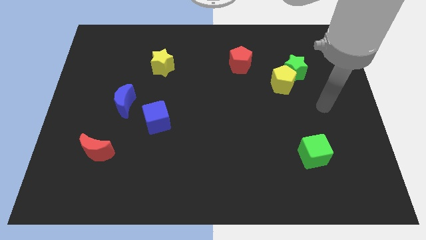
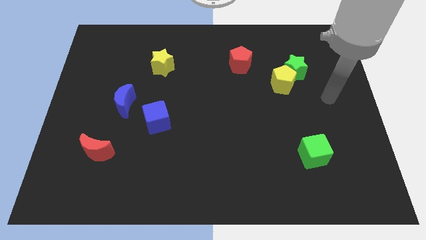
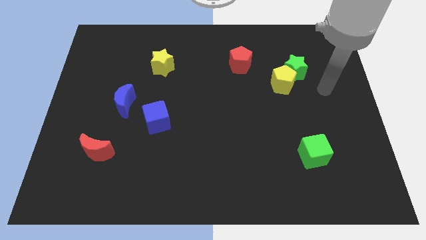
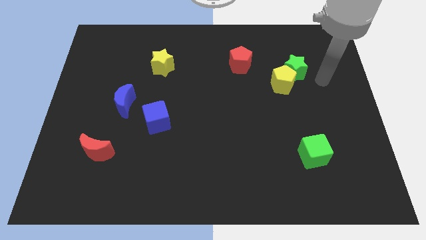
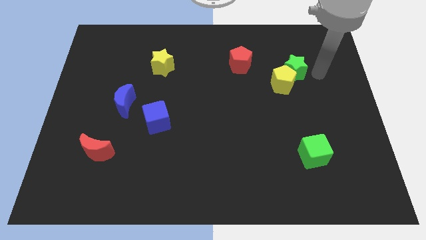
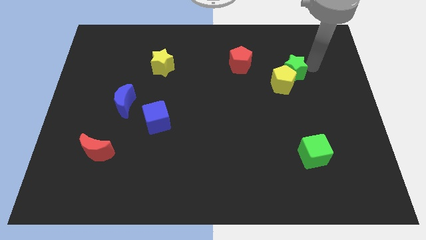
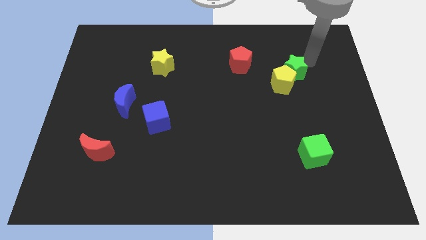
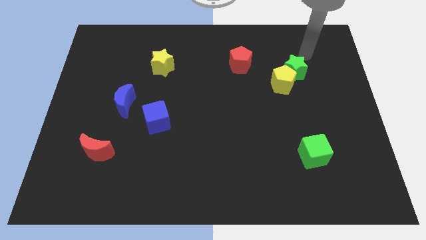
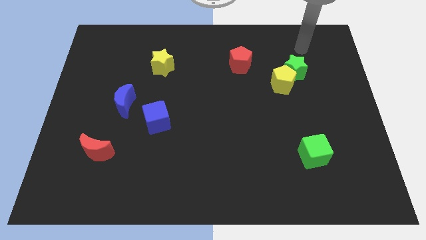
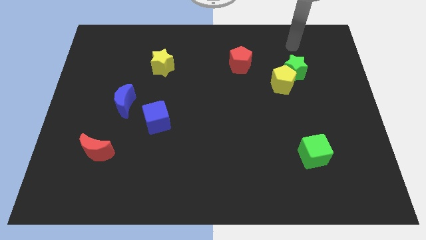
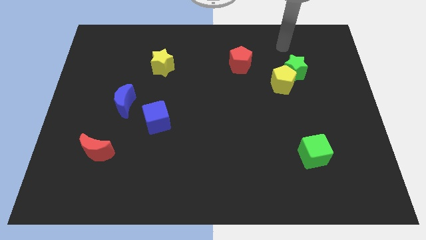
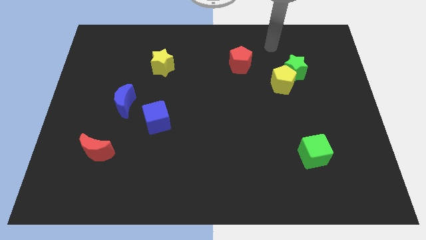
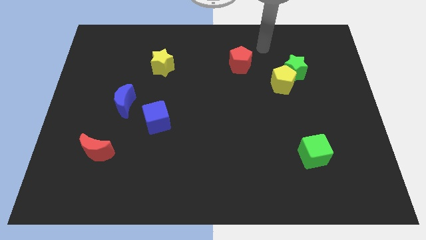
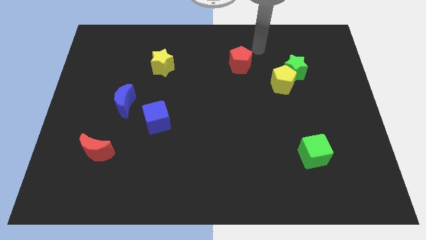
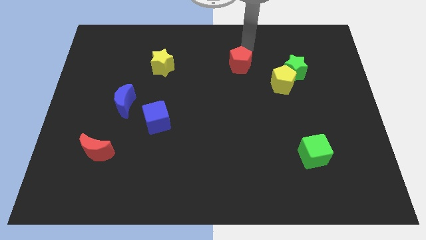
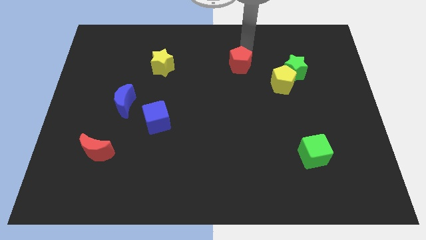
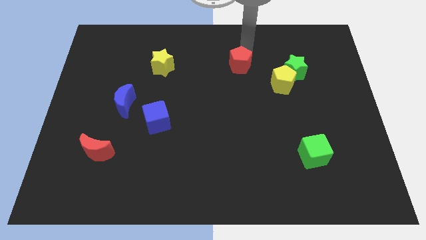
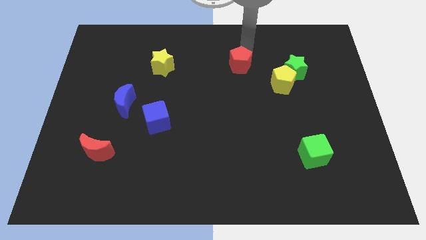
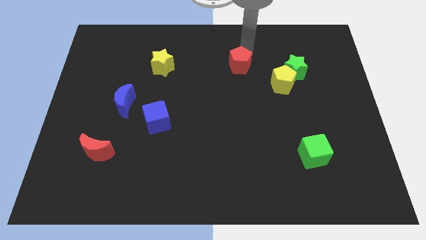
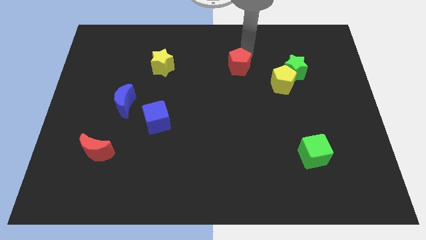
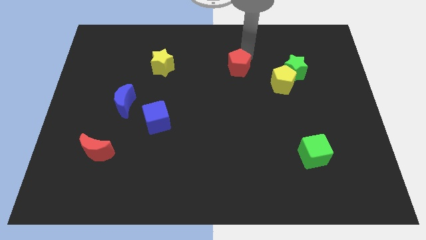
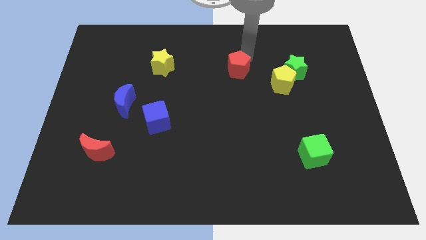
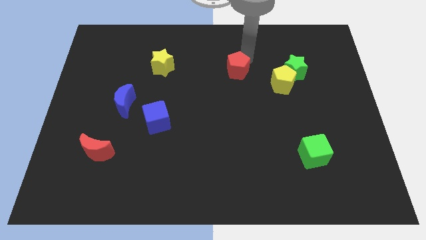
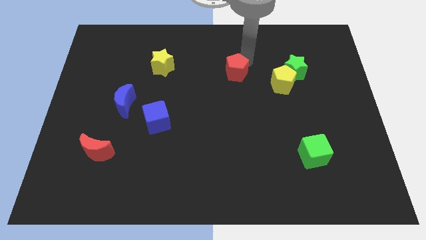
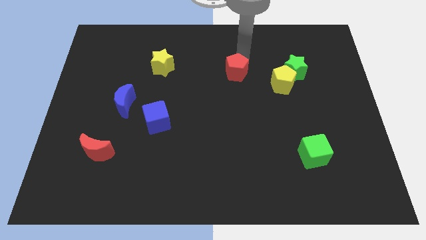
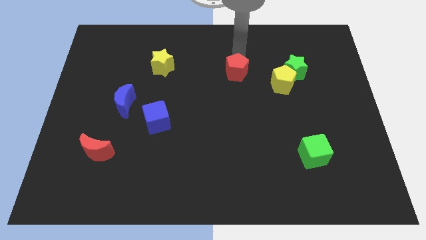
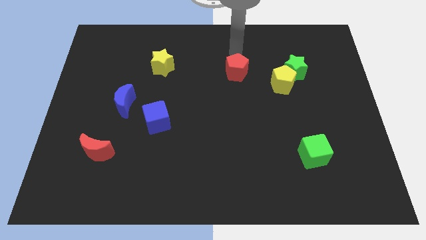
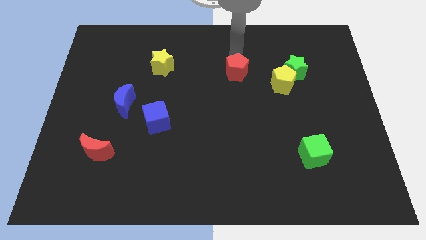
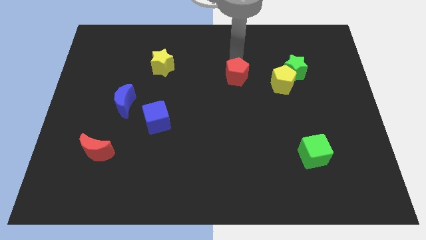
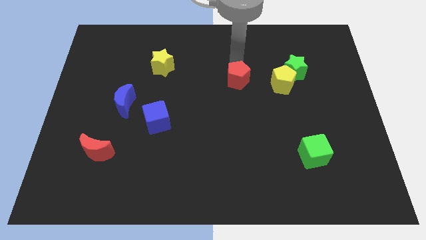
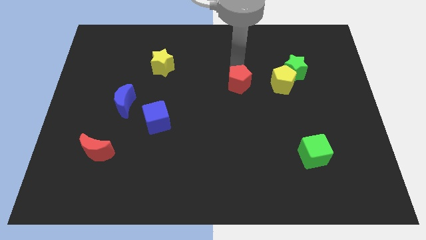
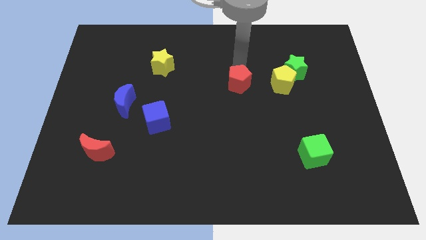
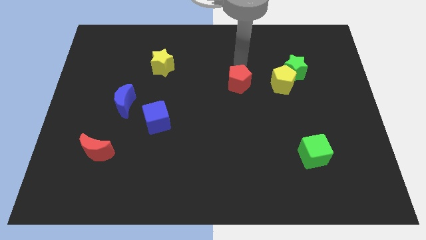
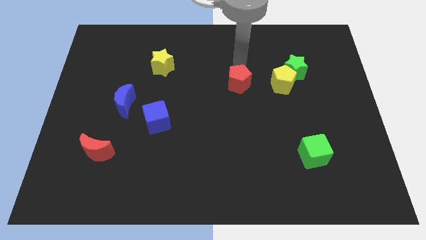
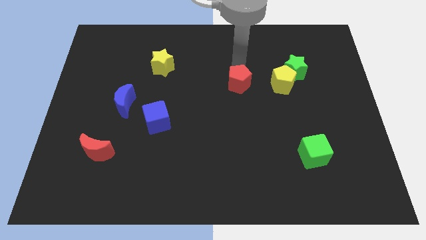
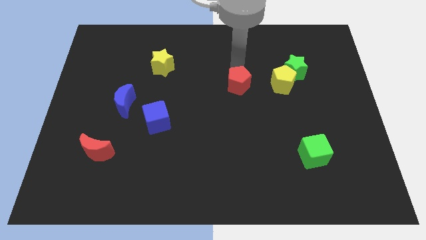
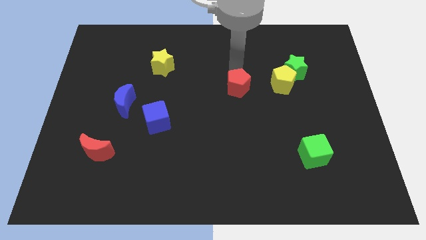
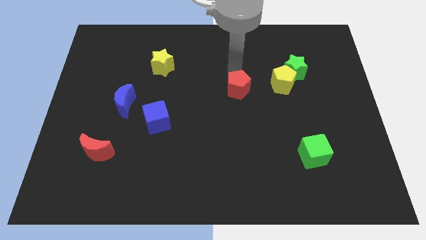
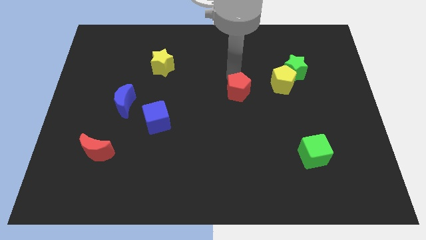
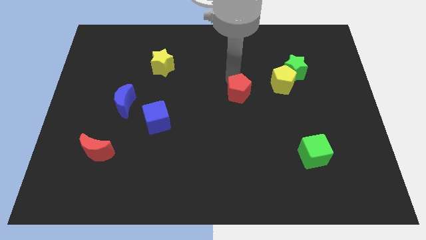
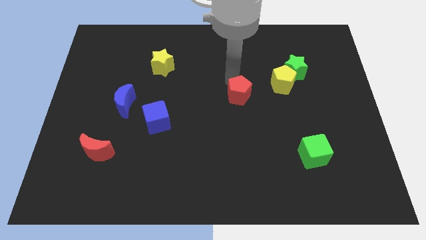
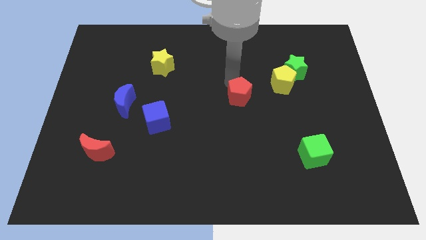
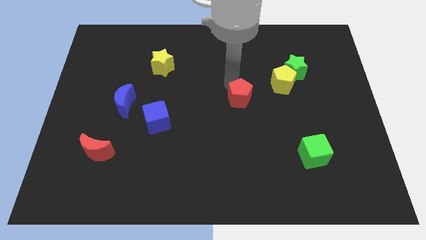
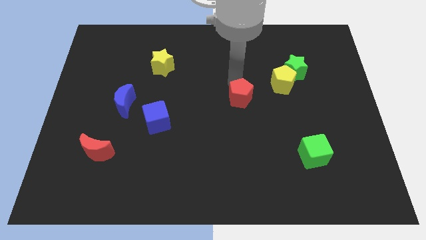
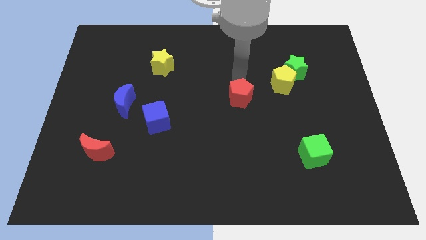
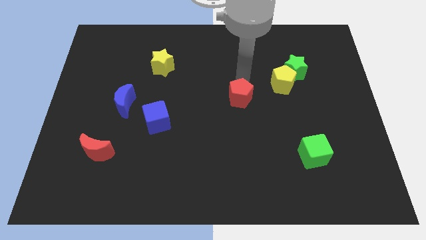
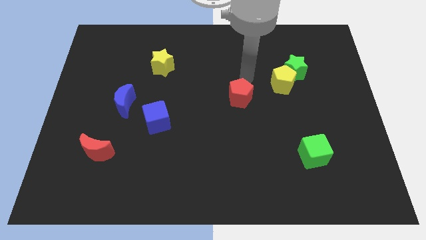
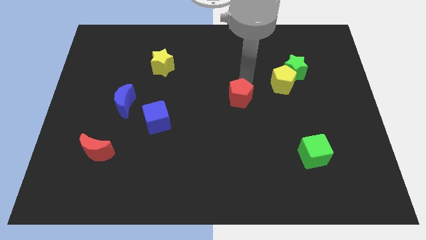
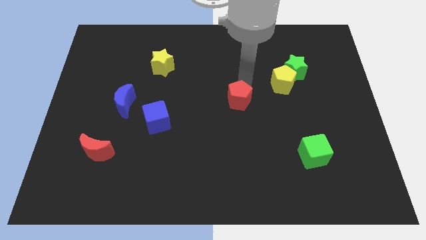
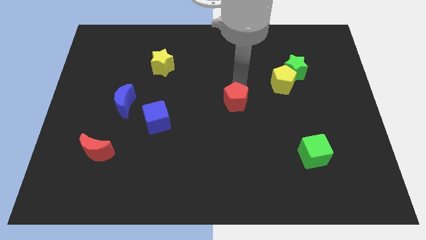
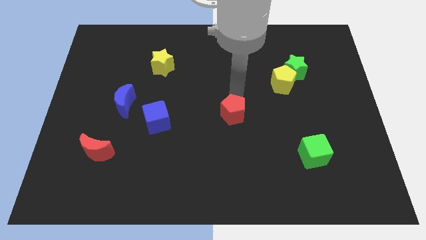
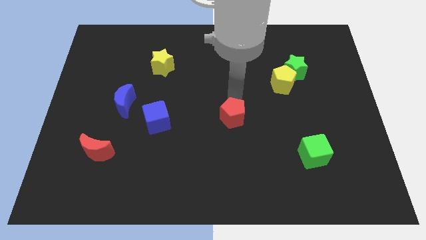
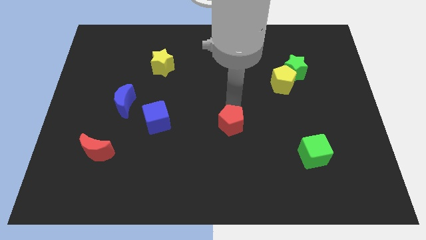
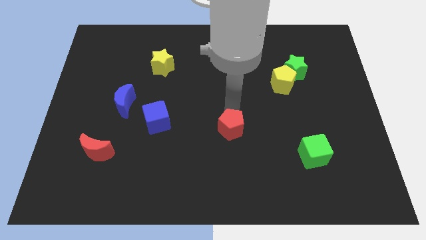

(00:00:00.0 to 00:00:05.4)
push the red pentagon down

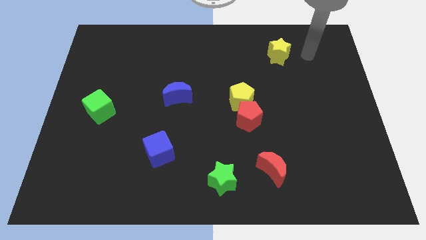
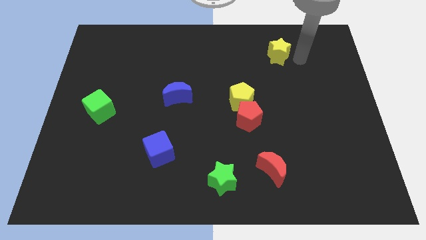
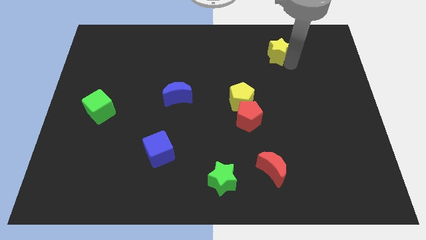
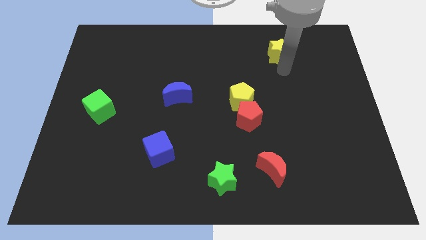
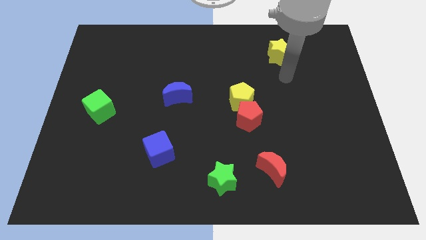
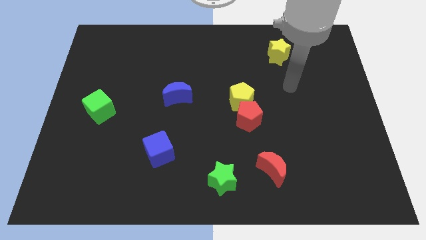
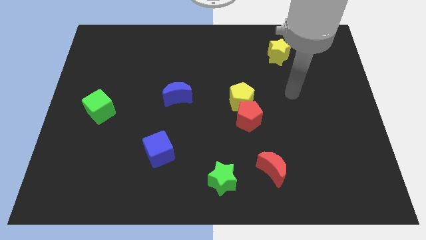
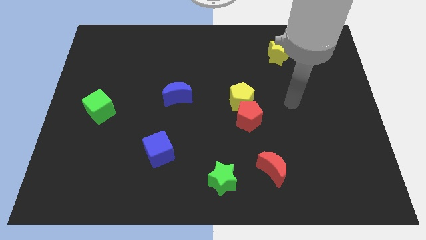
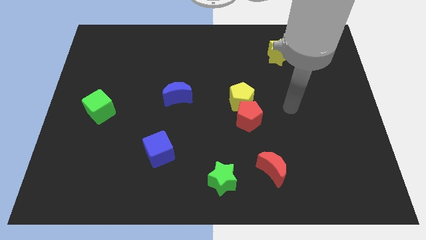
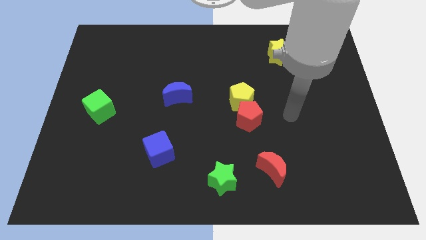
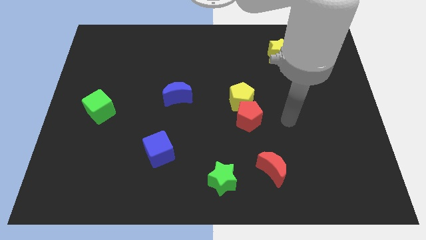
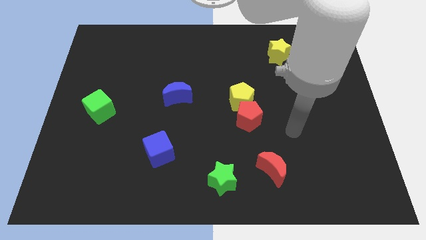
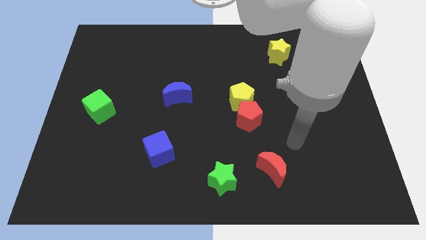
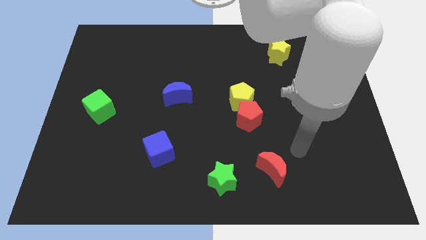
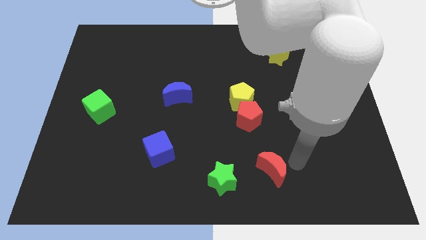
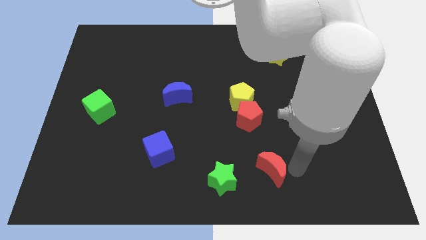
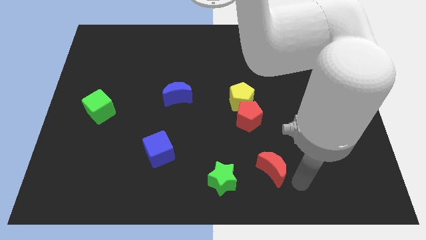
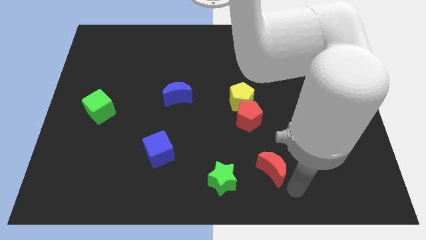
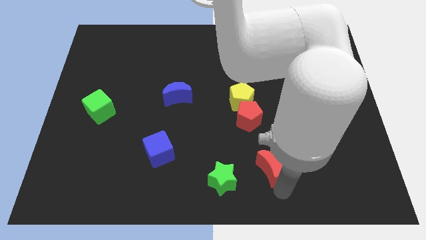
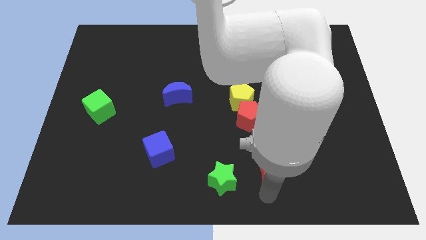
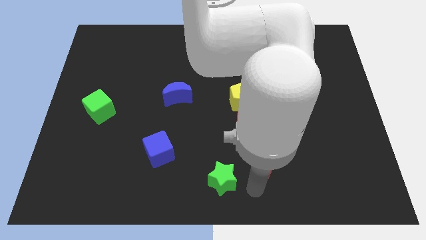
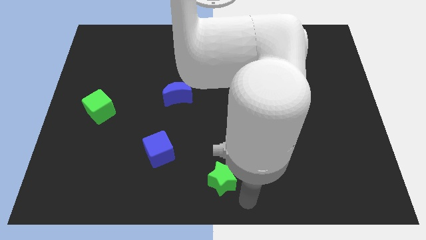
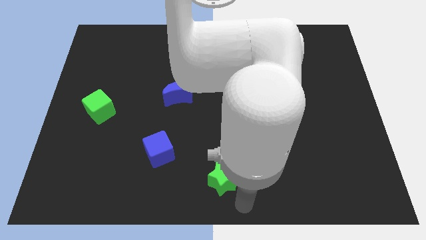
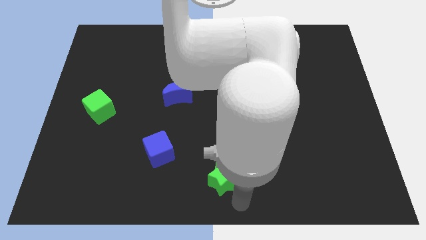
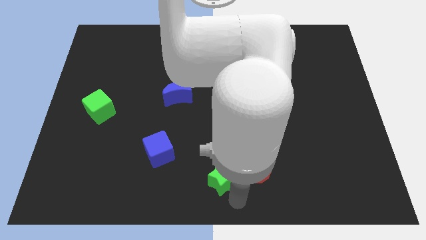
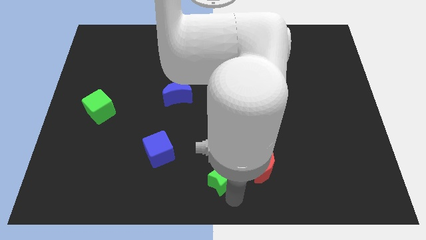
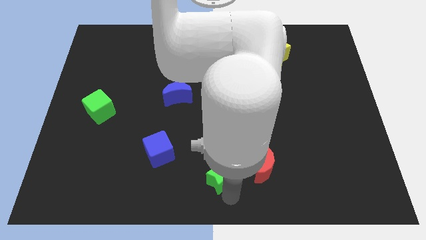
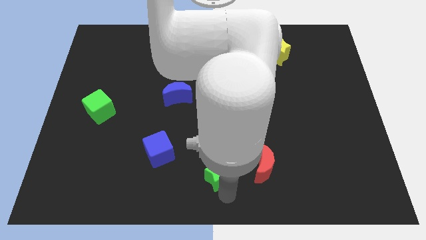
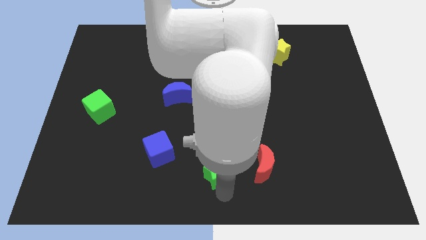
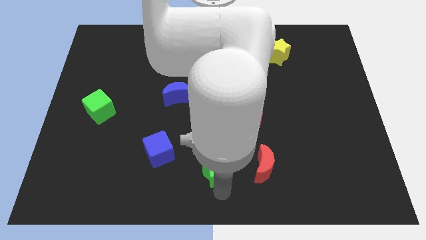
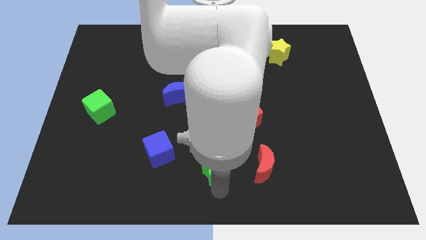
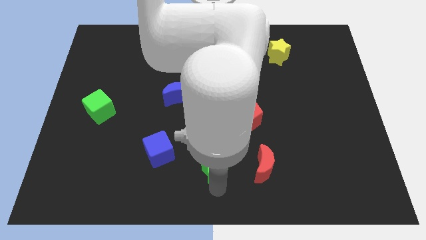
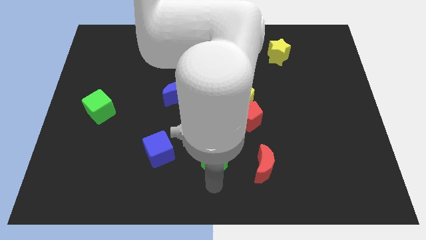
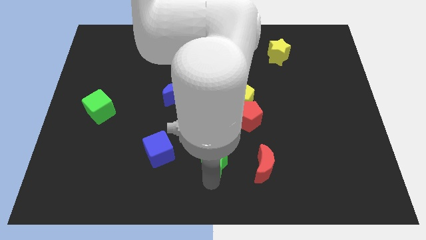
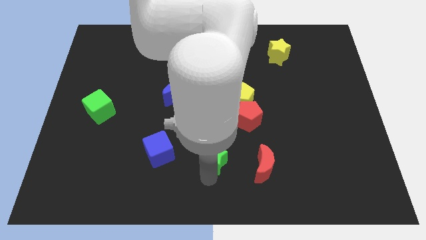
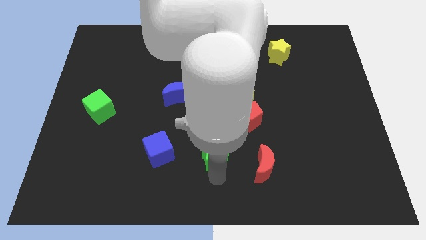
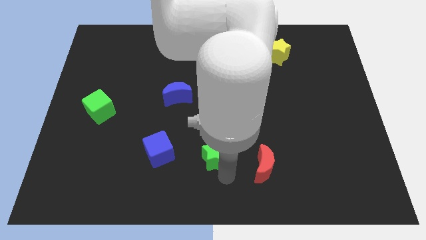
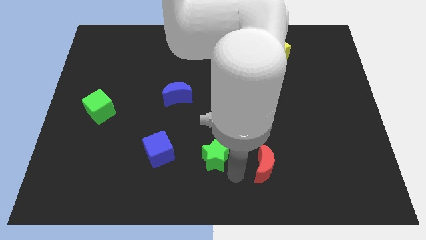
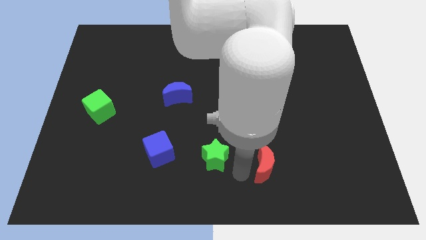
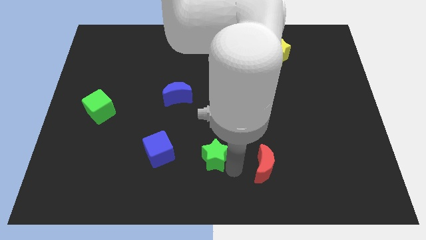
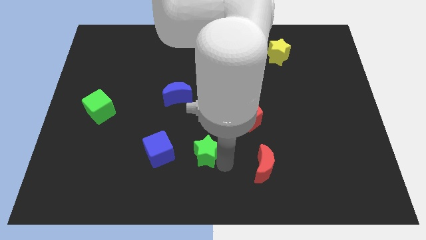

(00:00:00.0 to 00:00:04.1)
slide the green star a little bit up and left
